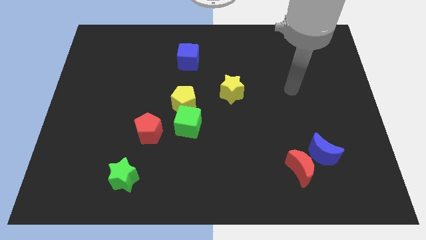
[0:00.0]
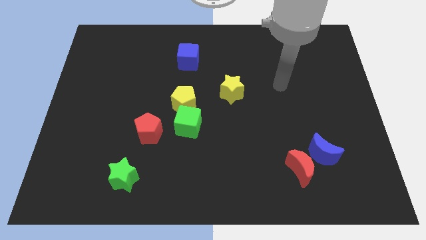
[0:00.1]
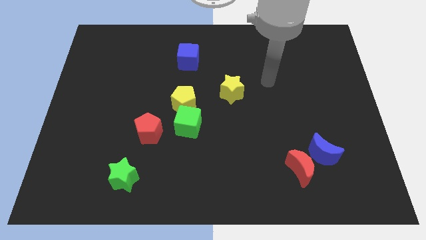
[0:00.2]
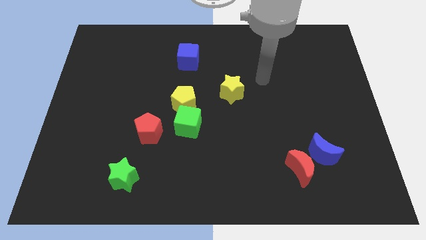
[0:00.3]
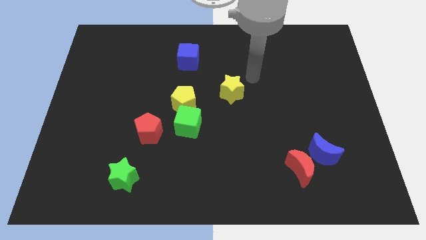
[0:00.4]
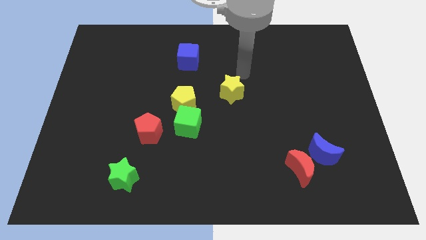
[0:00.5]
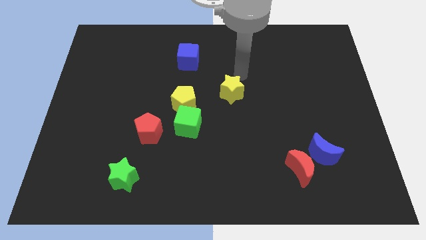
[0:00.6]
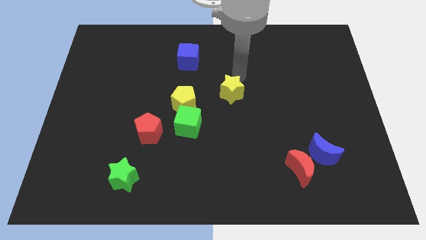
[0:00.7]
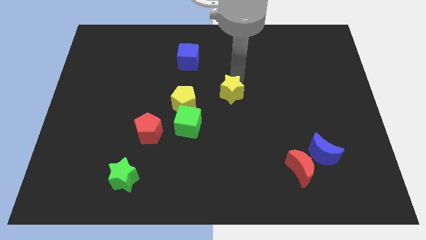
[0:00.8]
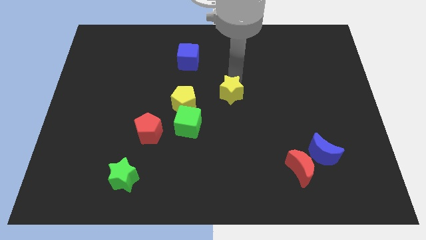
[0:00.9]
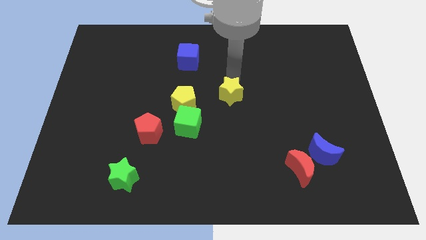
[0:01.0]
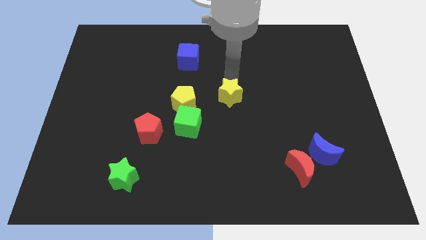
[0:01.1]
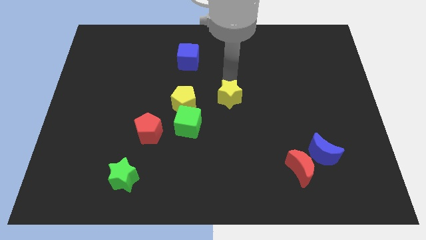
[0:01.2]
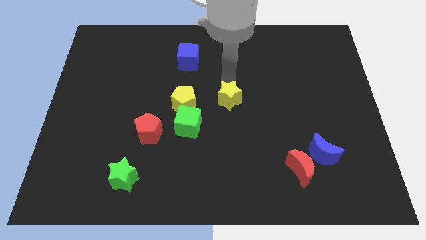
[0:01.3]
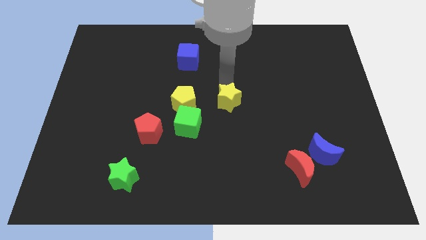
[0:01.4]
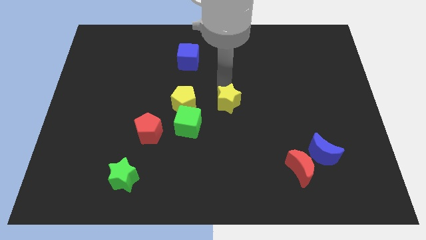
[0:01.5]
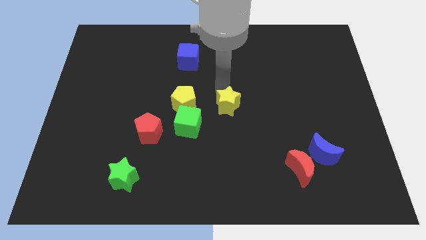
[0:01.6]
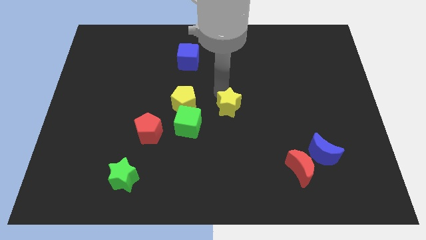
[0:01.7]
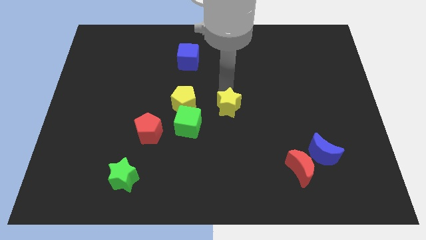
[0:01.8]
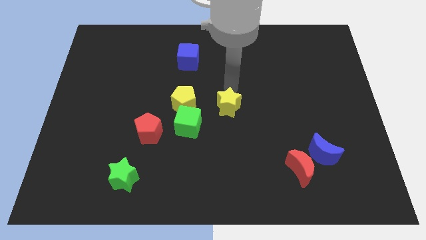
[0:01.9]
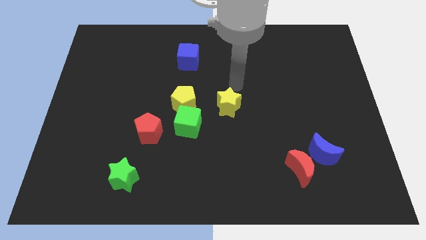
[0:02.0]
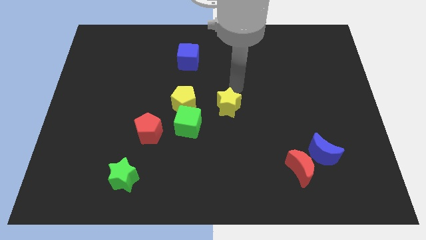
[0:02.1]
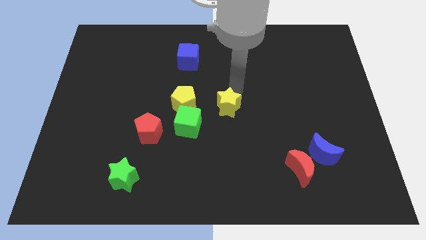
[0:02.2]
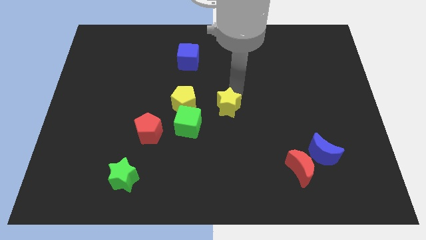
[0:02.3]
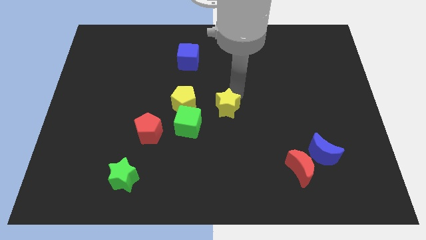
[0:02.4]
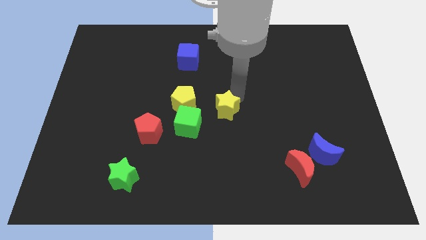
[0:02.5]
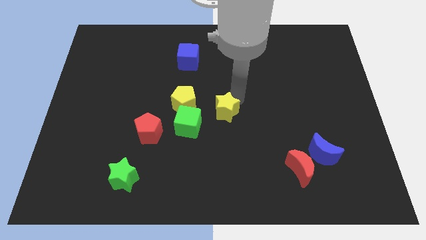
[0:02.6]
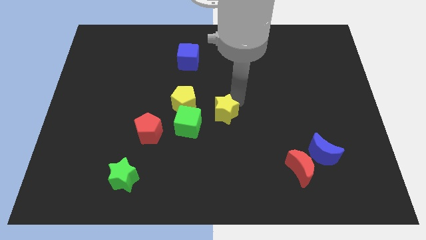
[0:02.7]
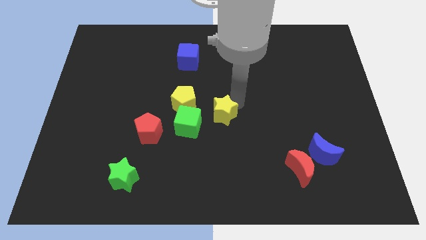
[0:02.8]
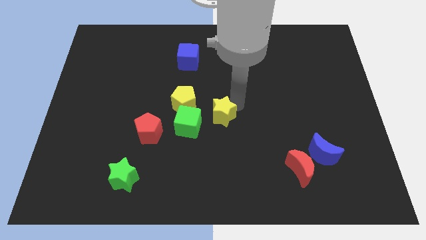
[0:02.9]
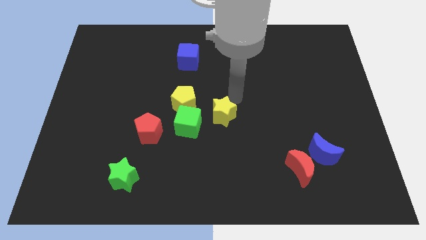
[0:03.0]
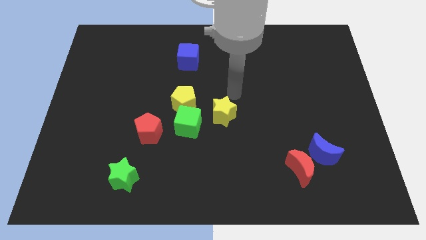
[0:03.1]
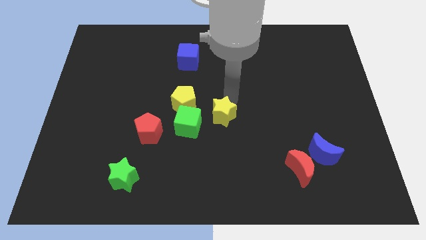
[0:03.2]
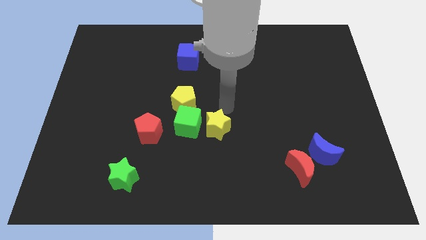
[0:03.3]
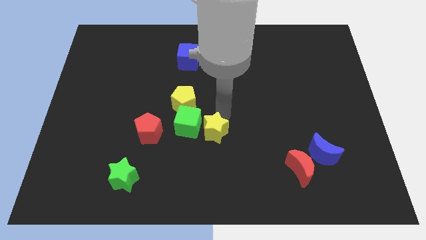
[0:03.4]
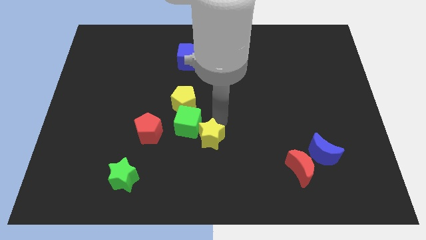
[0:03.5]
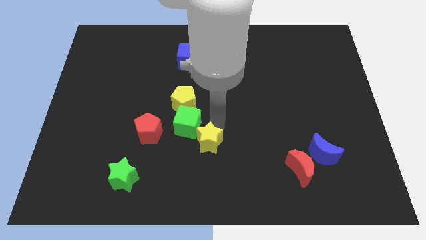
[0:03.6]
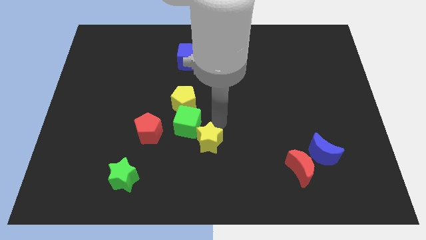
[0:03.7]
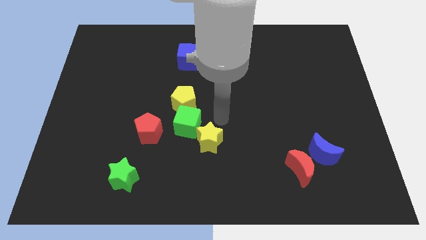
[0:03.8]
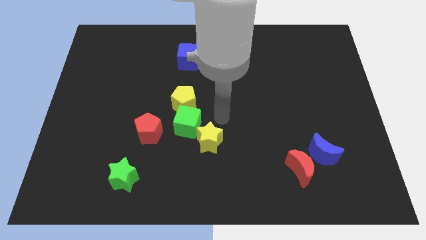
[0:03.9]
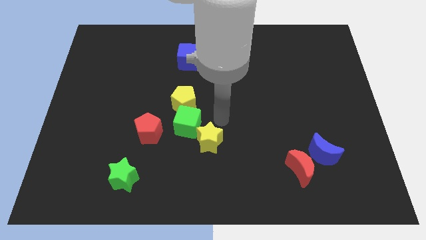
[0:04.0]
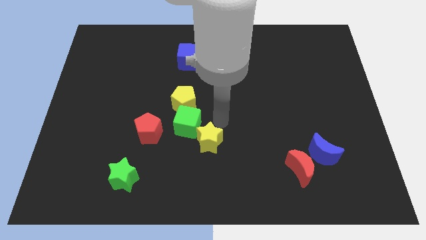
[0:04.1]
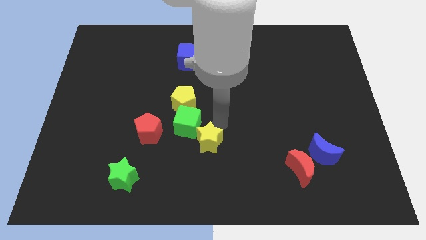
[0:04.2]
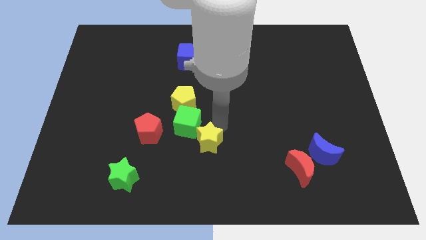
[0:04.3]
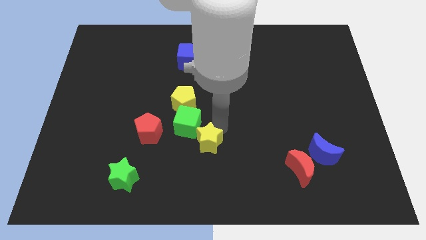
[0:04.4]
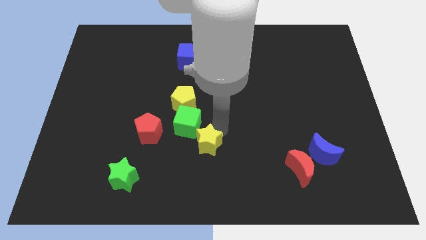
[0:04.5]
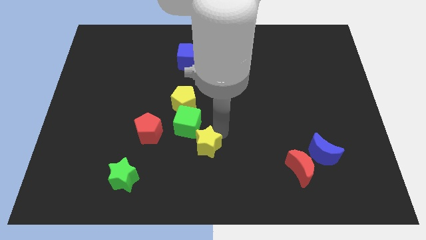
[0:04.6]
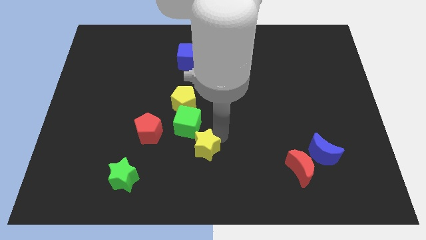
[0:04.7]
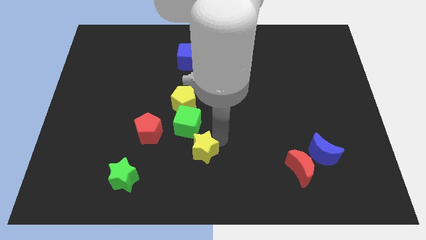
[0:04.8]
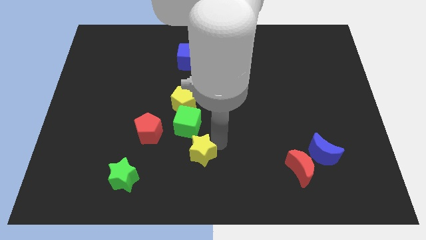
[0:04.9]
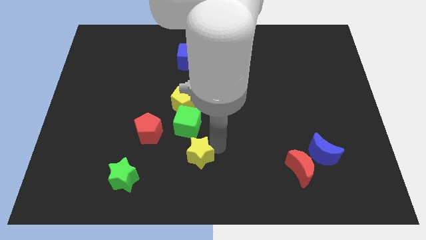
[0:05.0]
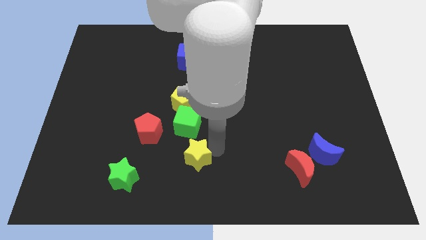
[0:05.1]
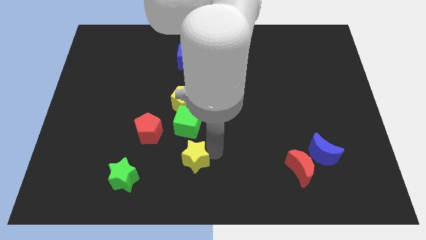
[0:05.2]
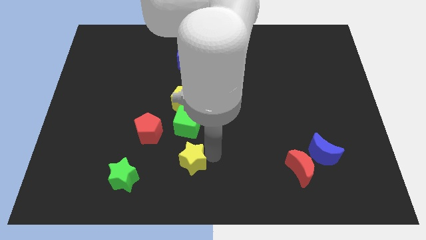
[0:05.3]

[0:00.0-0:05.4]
slide the yellow star just right of the green star

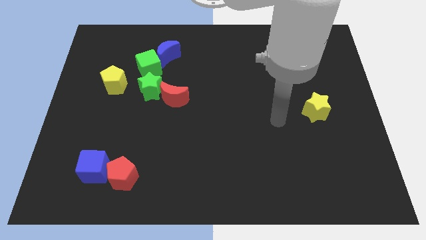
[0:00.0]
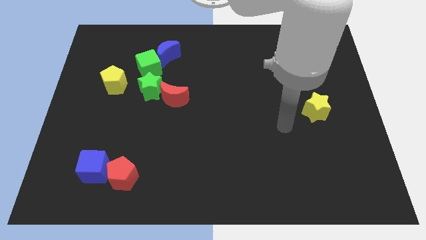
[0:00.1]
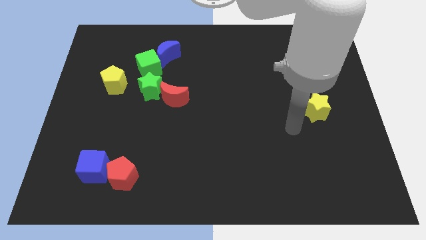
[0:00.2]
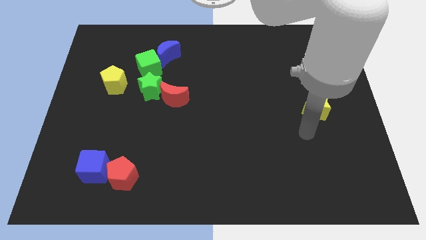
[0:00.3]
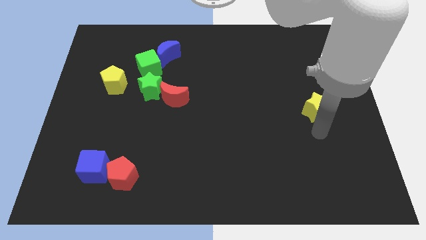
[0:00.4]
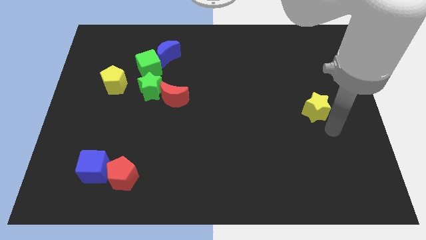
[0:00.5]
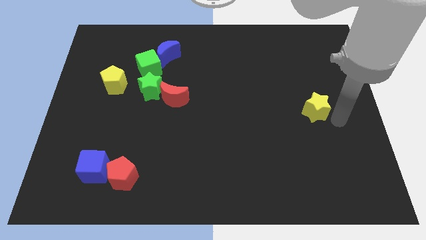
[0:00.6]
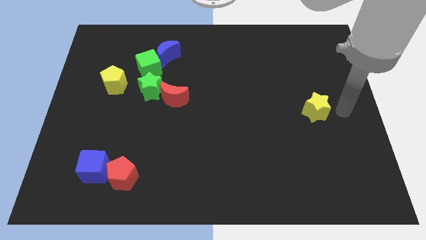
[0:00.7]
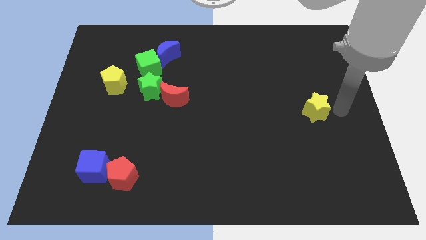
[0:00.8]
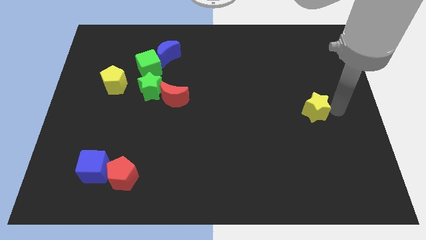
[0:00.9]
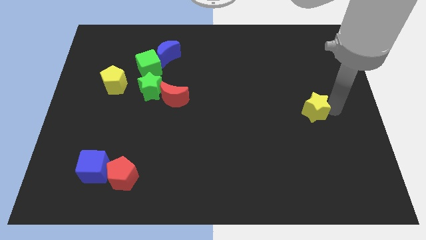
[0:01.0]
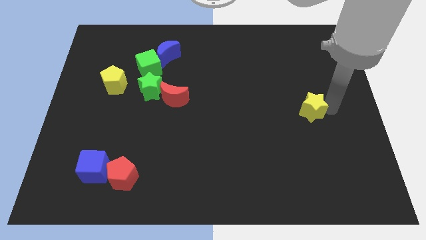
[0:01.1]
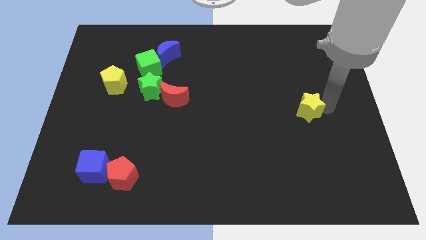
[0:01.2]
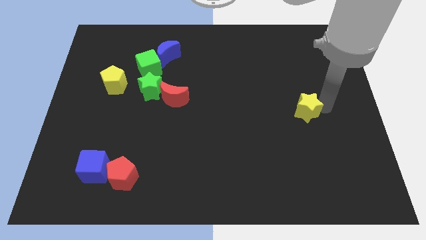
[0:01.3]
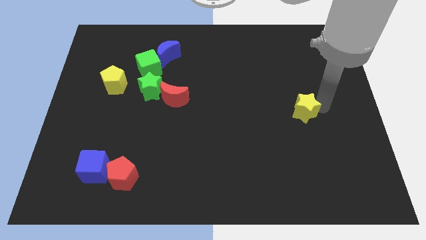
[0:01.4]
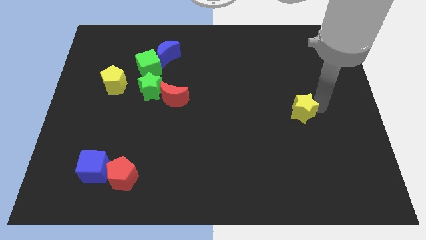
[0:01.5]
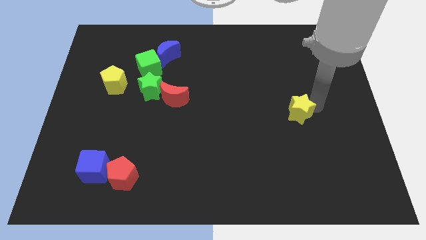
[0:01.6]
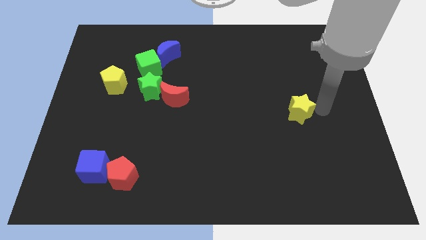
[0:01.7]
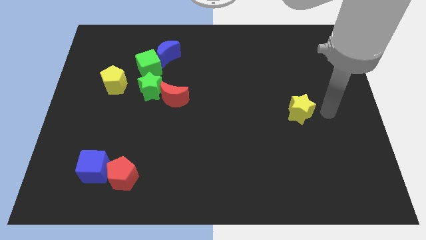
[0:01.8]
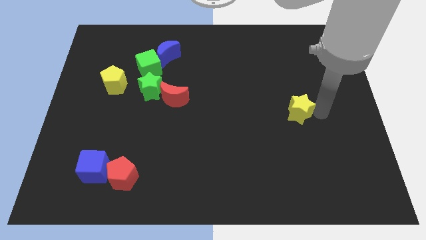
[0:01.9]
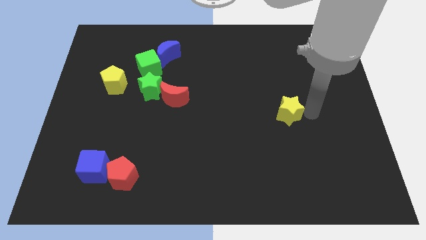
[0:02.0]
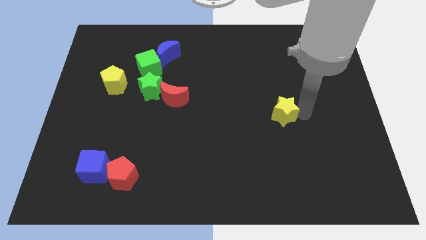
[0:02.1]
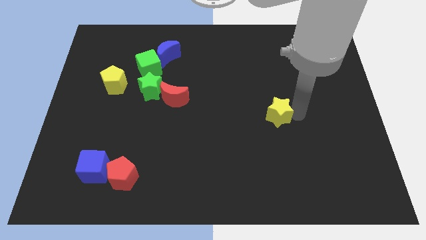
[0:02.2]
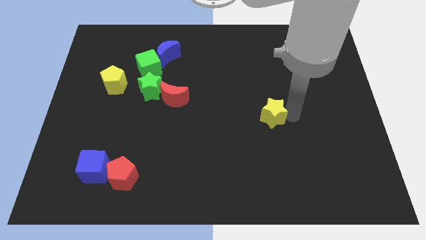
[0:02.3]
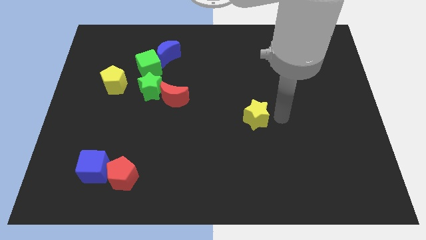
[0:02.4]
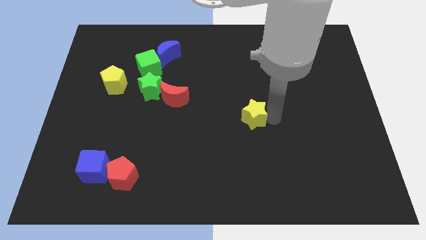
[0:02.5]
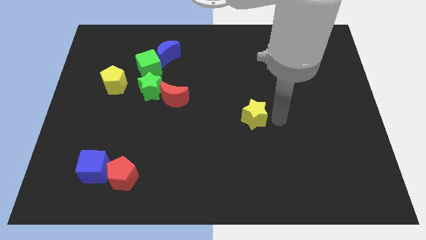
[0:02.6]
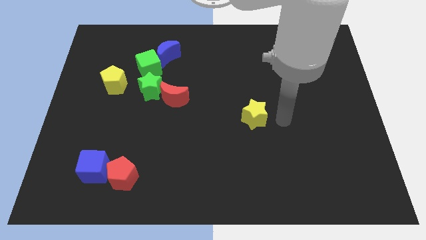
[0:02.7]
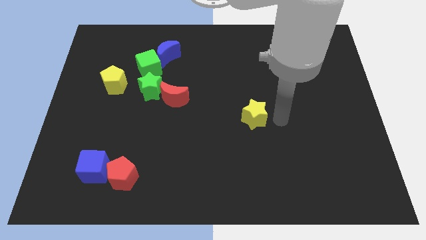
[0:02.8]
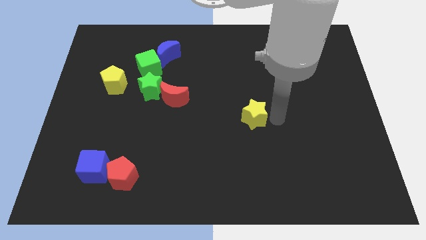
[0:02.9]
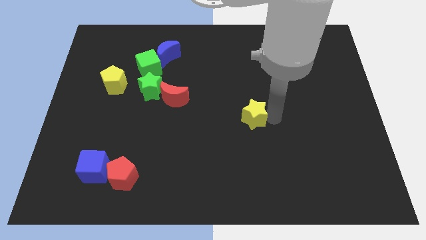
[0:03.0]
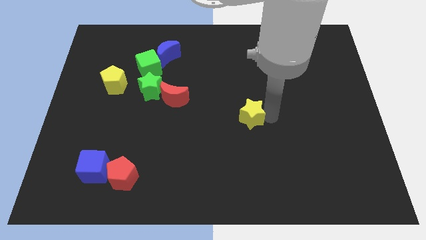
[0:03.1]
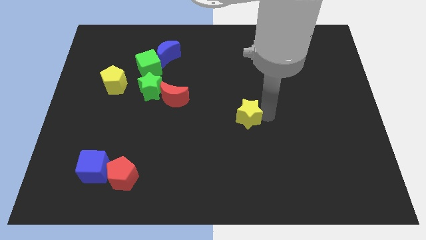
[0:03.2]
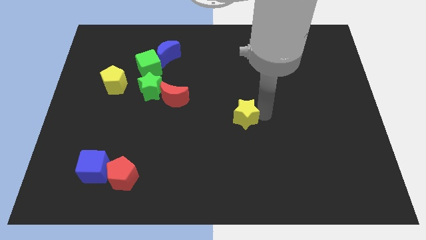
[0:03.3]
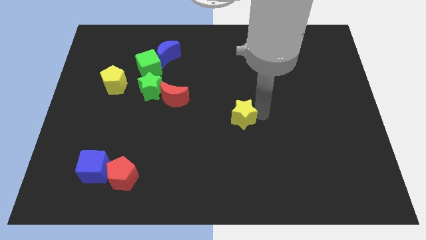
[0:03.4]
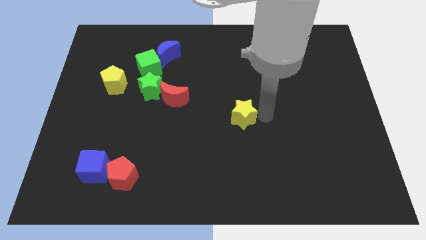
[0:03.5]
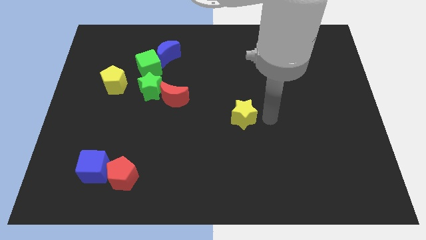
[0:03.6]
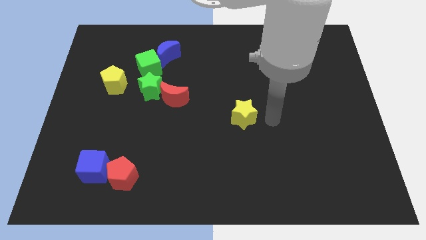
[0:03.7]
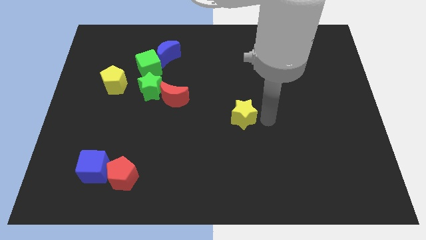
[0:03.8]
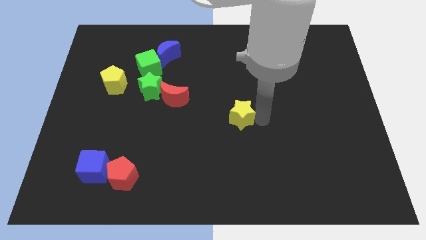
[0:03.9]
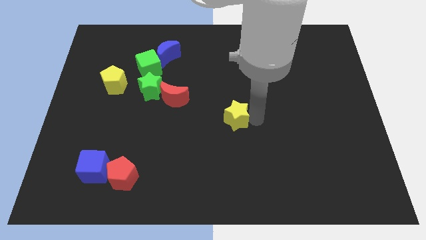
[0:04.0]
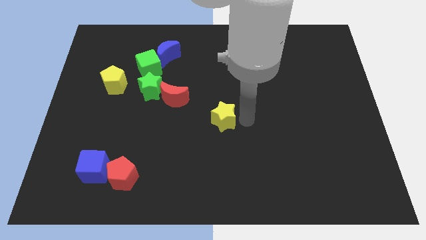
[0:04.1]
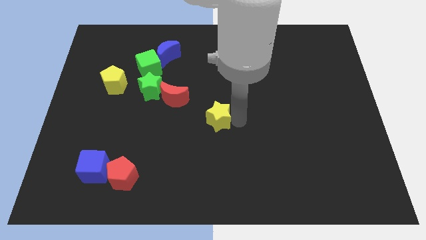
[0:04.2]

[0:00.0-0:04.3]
put the yellow star diagonally down and to the right of the red moon
